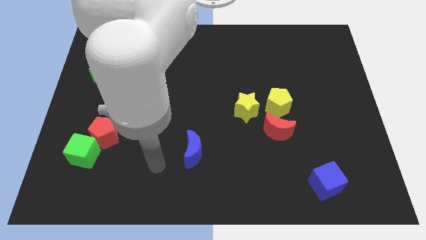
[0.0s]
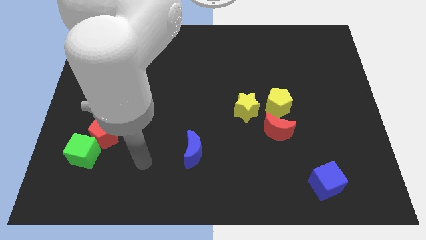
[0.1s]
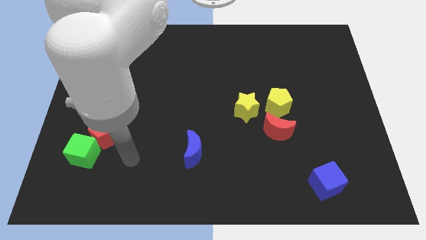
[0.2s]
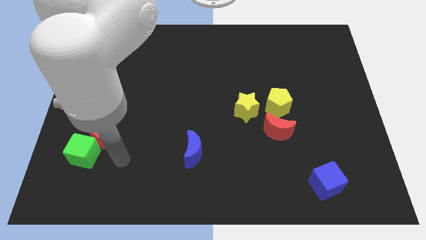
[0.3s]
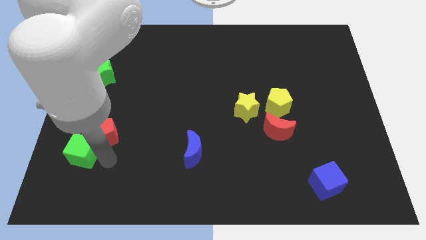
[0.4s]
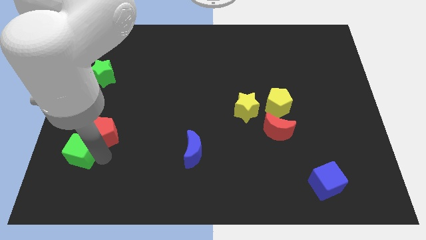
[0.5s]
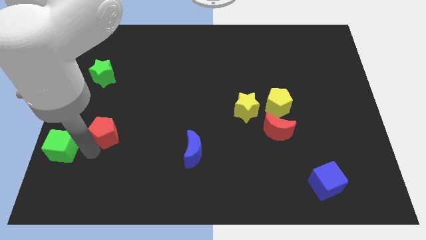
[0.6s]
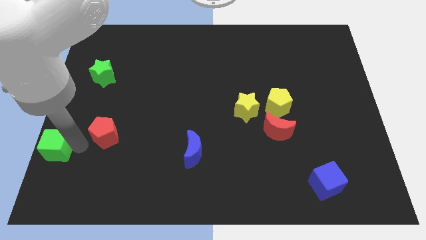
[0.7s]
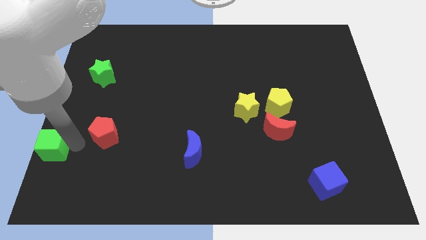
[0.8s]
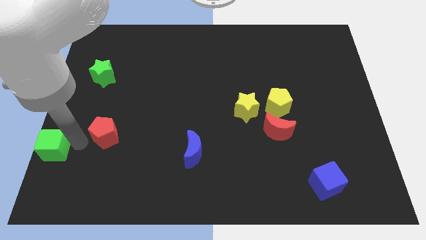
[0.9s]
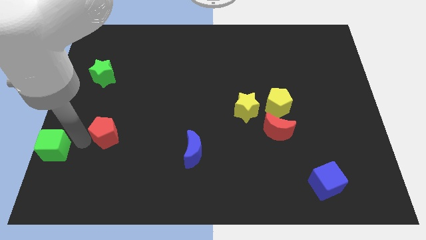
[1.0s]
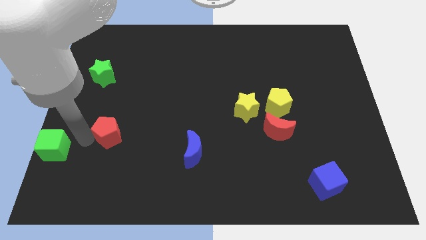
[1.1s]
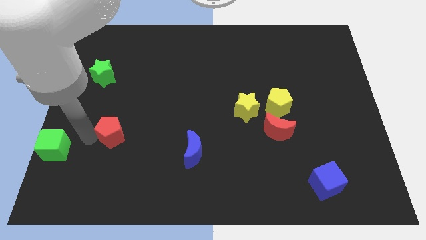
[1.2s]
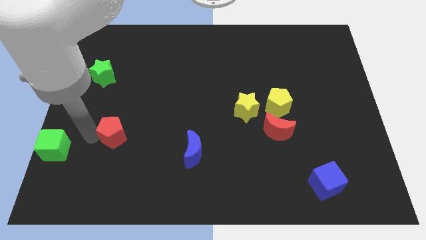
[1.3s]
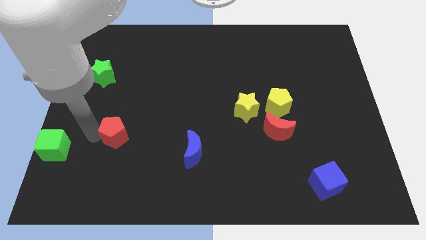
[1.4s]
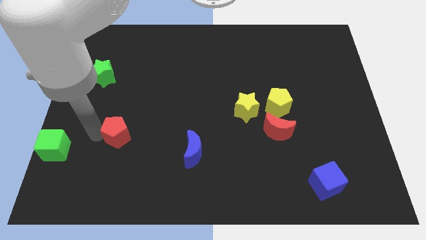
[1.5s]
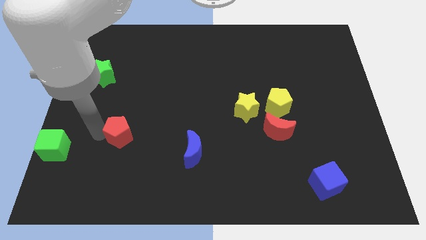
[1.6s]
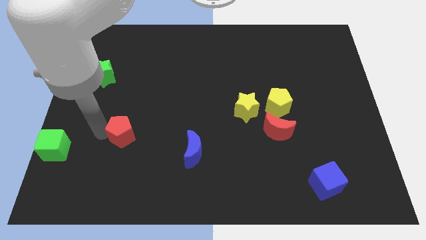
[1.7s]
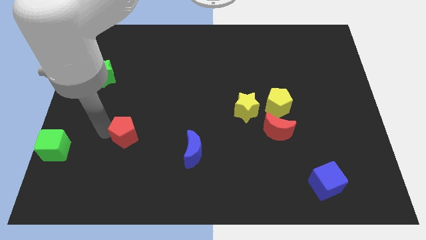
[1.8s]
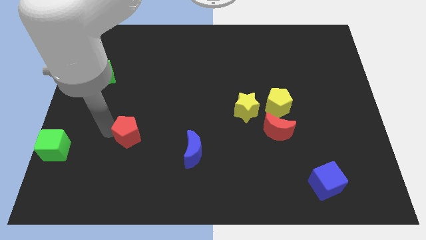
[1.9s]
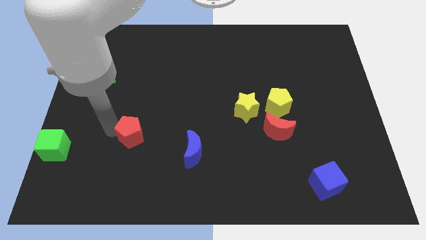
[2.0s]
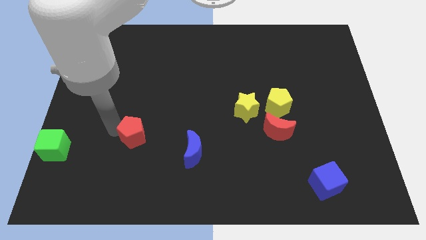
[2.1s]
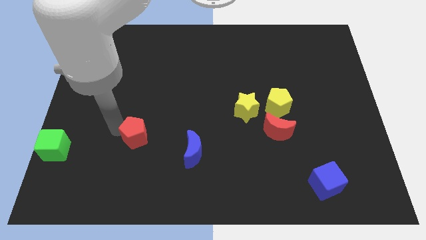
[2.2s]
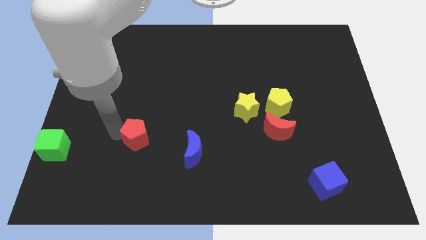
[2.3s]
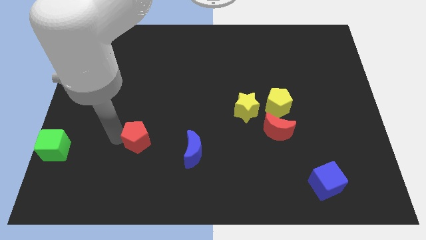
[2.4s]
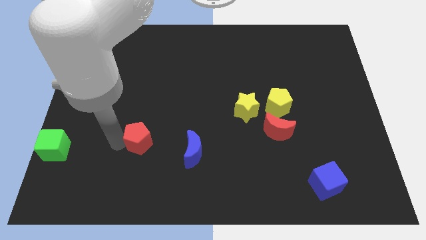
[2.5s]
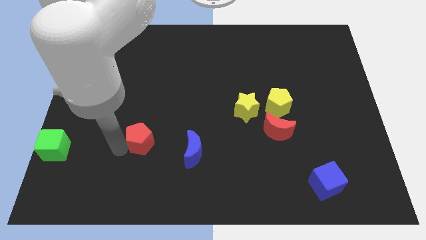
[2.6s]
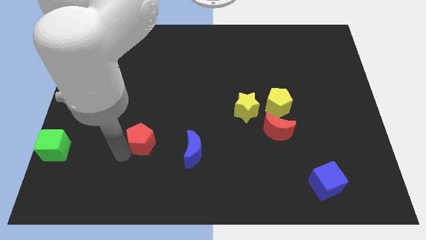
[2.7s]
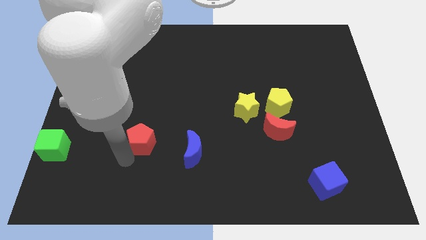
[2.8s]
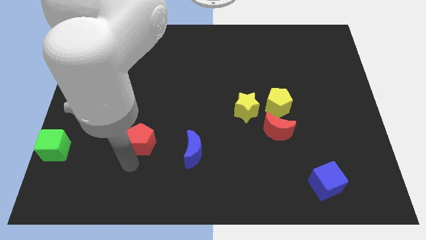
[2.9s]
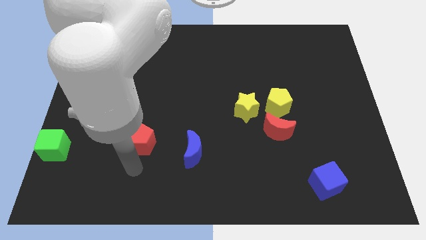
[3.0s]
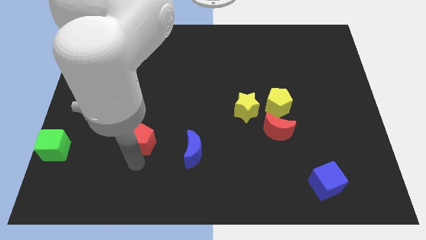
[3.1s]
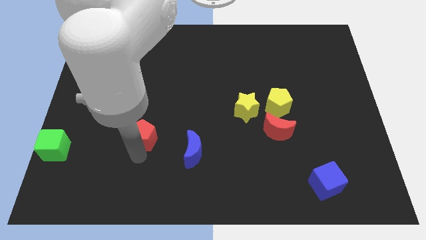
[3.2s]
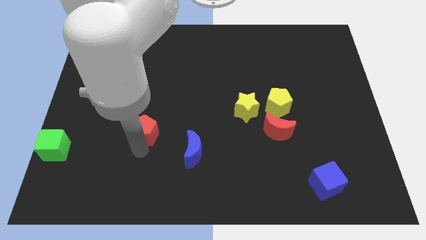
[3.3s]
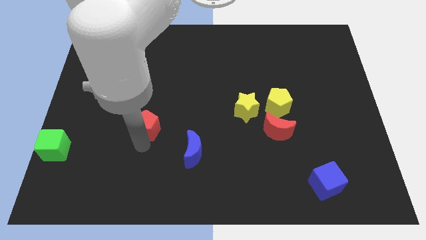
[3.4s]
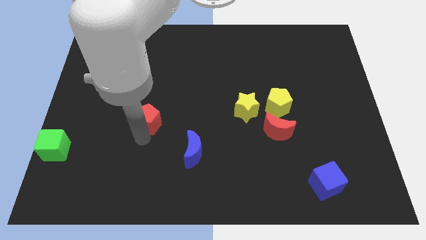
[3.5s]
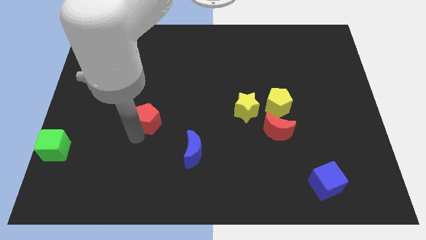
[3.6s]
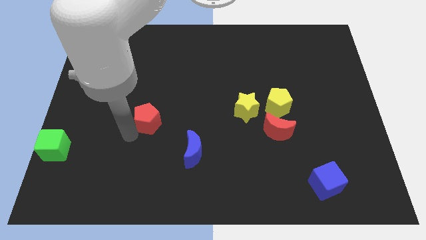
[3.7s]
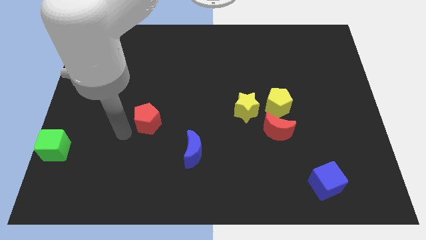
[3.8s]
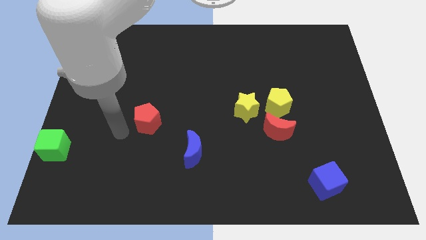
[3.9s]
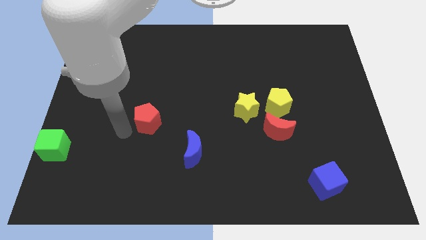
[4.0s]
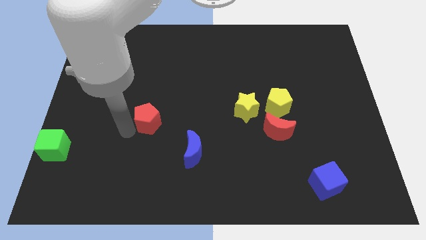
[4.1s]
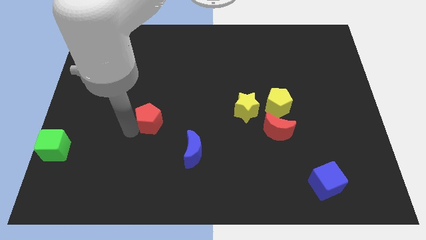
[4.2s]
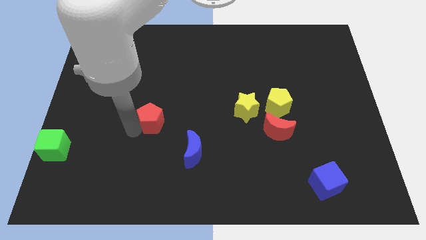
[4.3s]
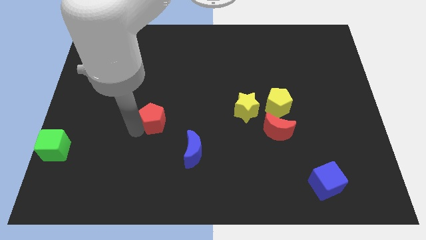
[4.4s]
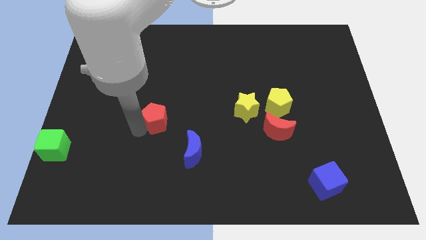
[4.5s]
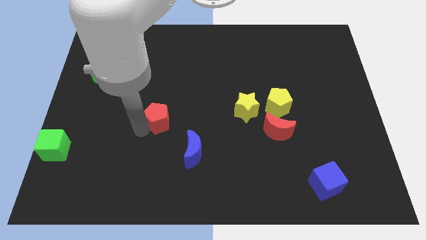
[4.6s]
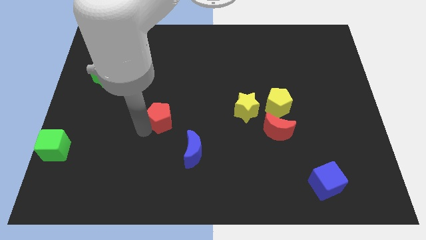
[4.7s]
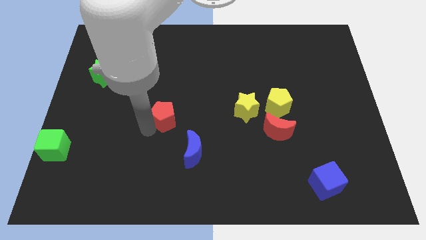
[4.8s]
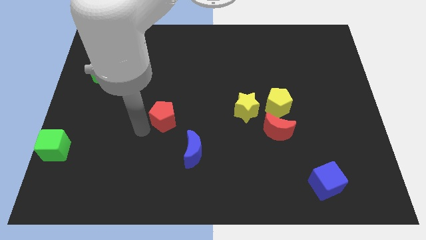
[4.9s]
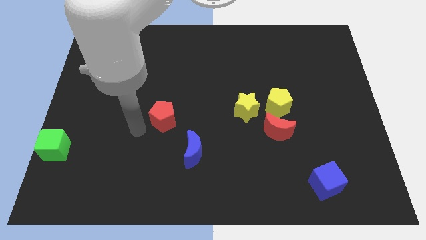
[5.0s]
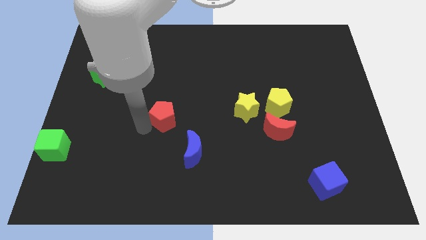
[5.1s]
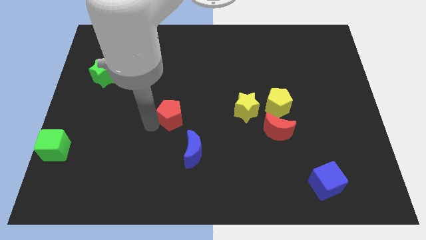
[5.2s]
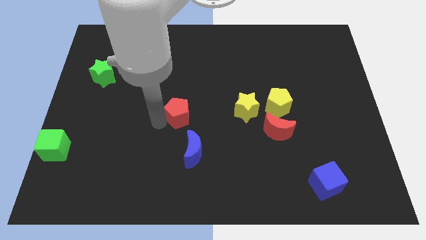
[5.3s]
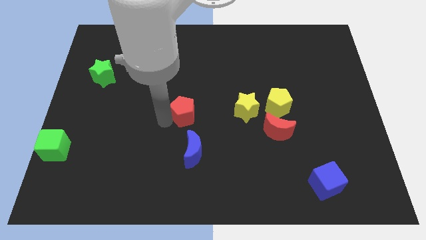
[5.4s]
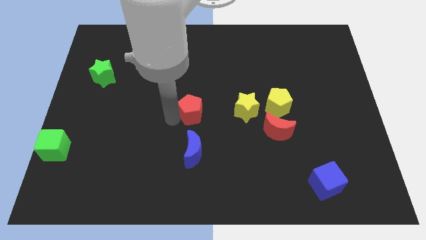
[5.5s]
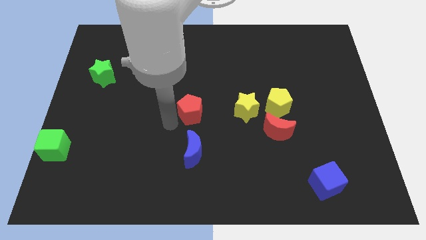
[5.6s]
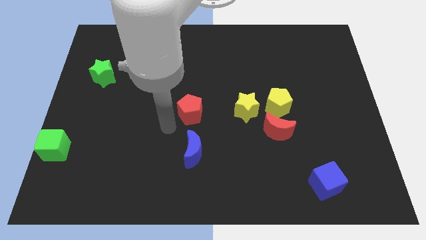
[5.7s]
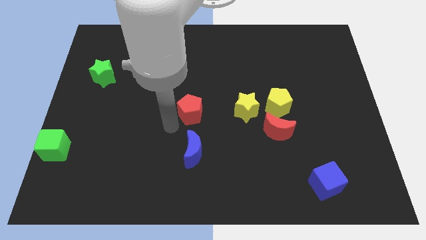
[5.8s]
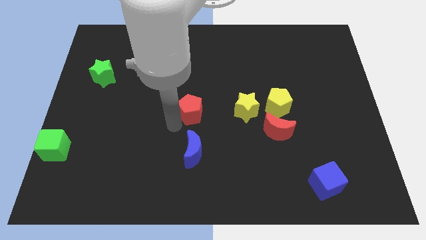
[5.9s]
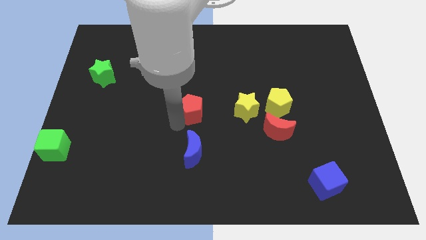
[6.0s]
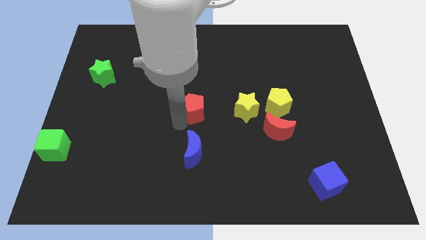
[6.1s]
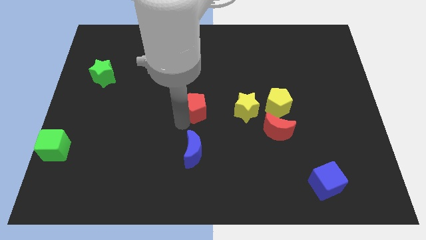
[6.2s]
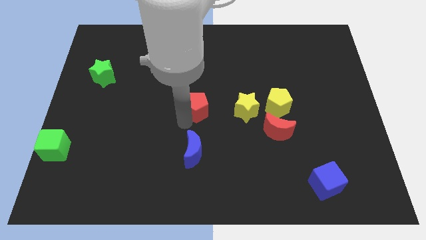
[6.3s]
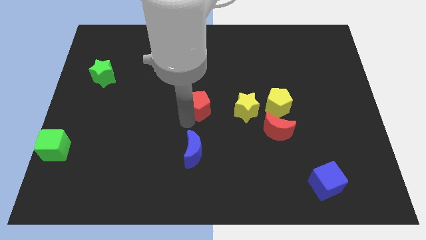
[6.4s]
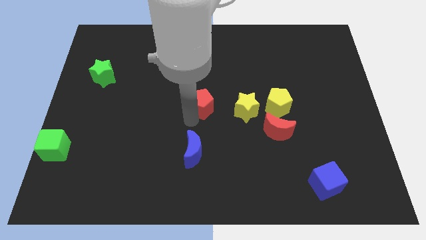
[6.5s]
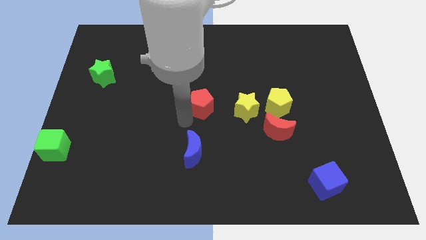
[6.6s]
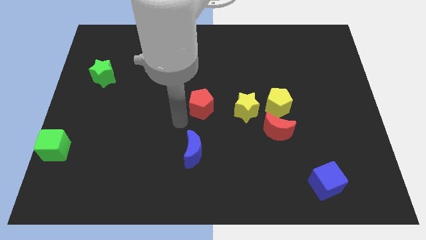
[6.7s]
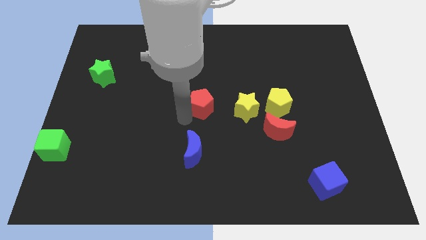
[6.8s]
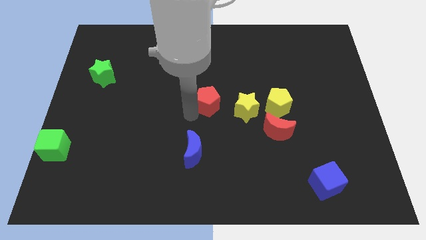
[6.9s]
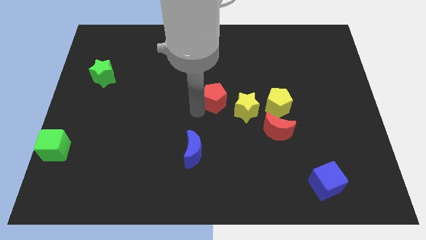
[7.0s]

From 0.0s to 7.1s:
slide the red pentagon to the top left of the yellow star
